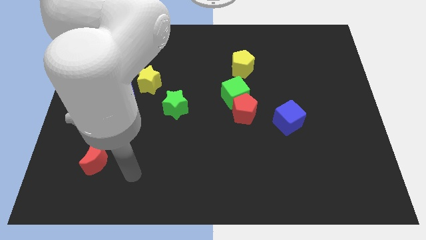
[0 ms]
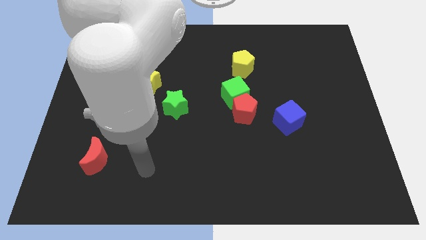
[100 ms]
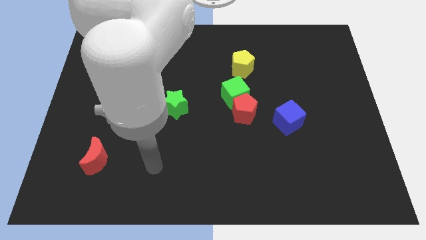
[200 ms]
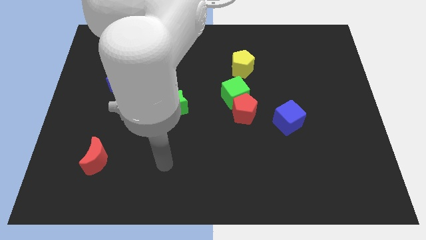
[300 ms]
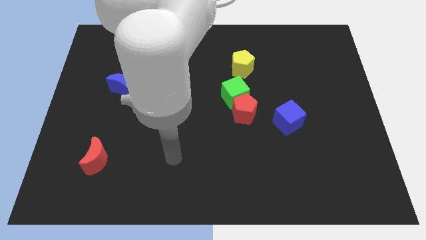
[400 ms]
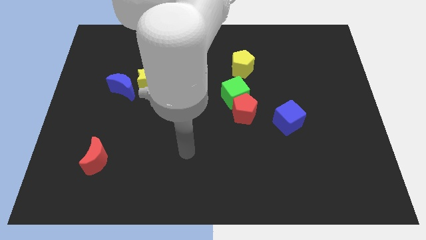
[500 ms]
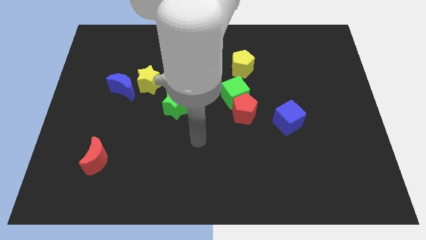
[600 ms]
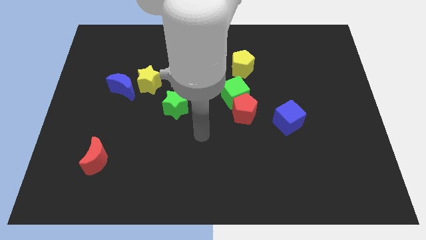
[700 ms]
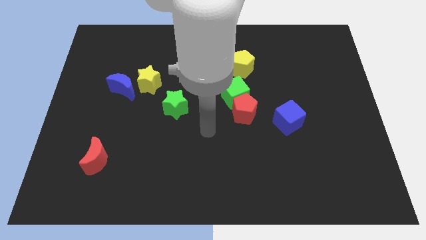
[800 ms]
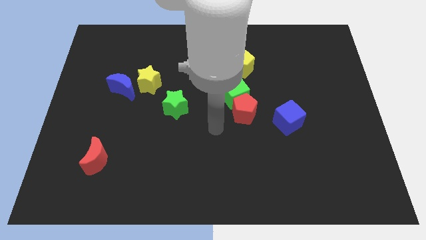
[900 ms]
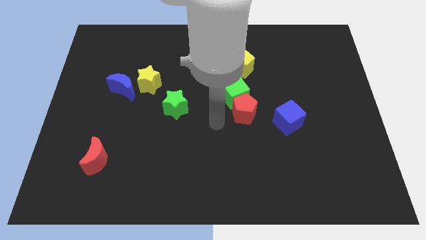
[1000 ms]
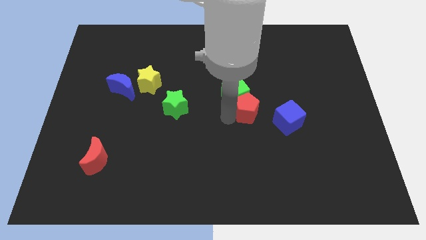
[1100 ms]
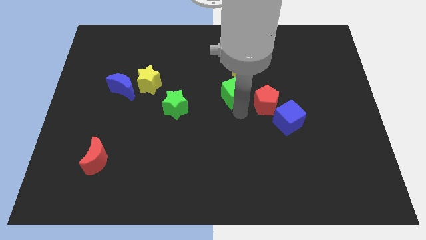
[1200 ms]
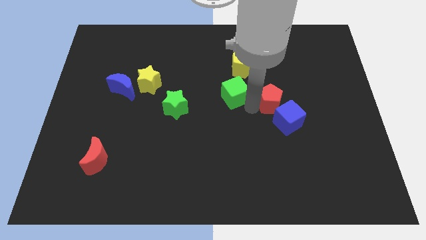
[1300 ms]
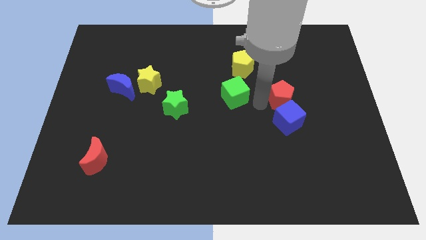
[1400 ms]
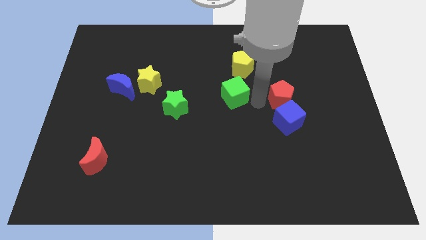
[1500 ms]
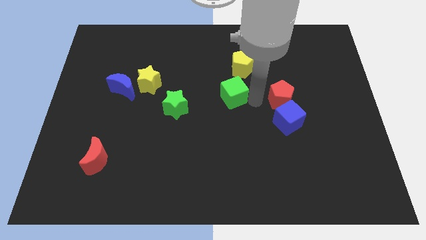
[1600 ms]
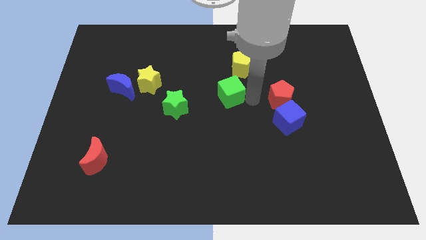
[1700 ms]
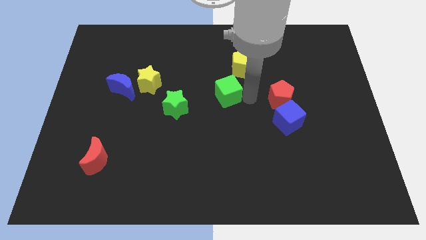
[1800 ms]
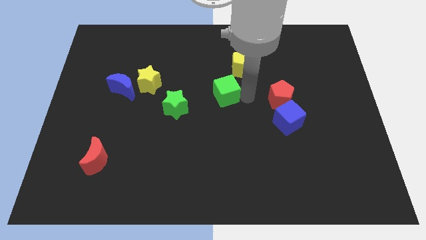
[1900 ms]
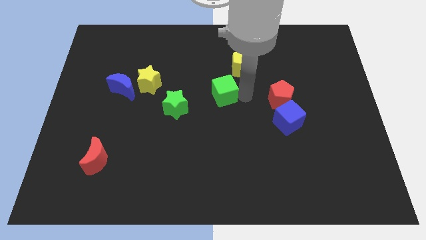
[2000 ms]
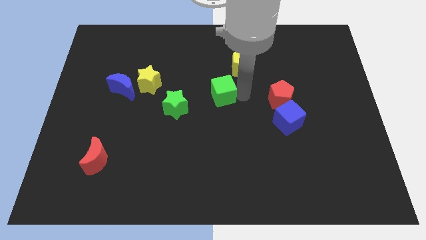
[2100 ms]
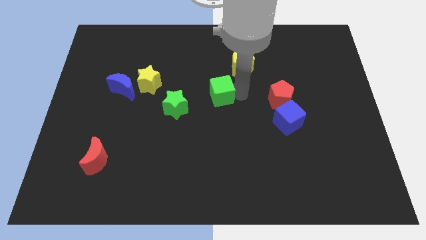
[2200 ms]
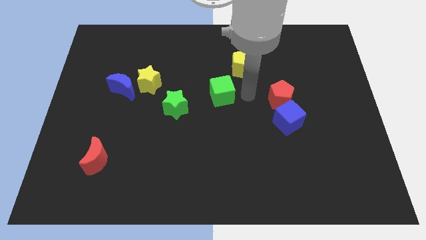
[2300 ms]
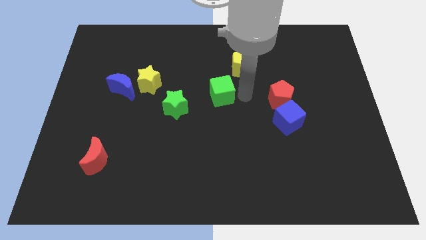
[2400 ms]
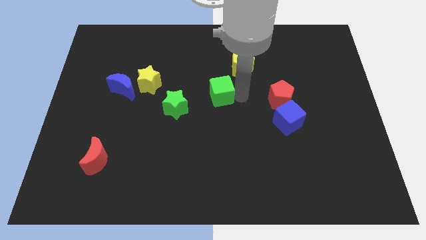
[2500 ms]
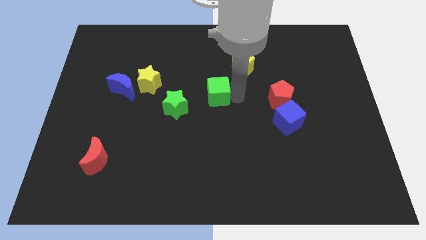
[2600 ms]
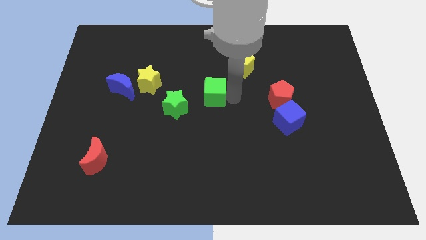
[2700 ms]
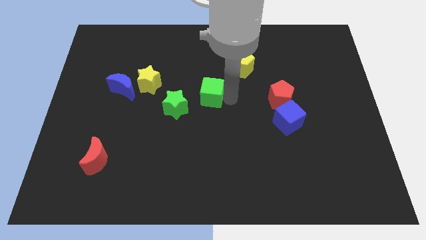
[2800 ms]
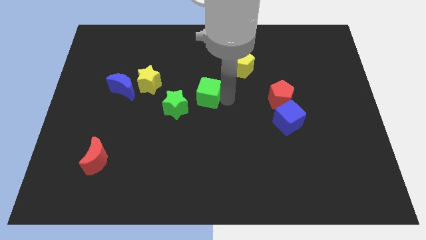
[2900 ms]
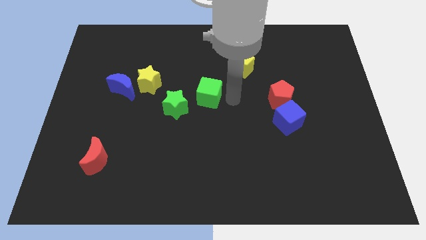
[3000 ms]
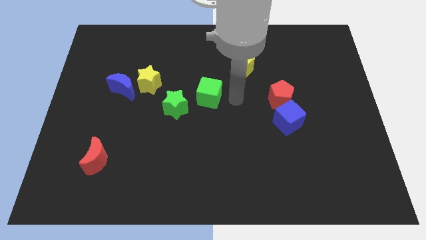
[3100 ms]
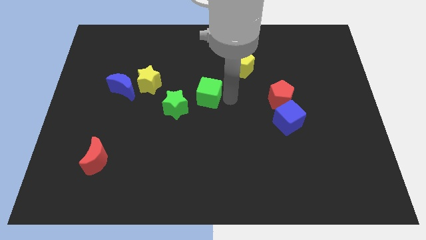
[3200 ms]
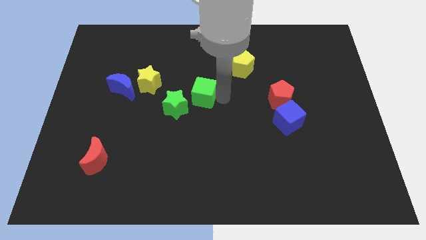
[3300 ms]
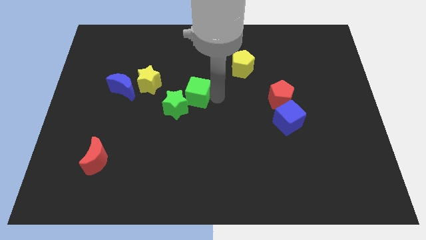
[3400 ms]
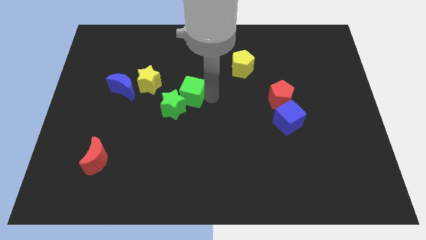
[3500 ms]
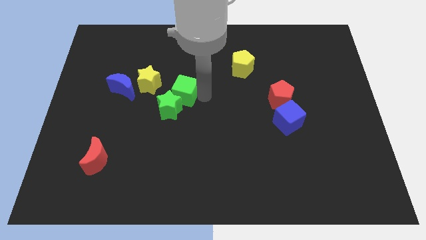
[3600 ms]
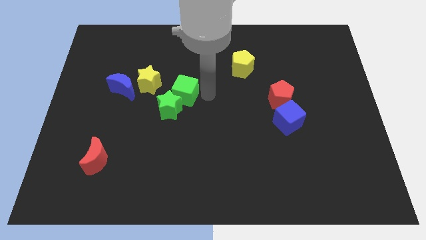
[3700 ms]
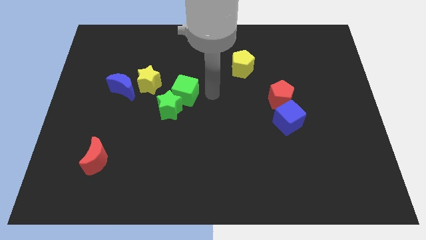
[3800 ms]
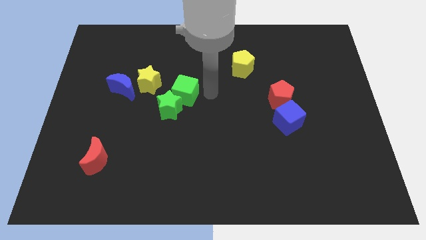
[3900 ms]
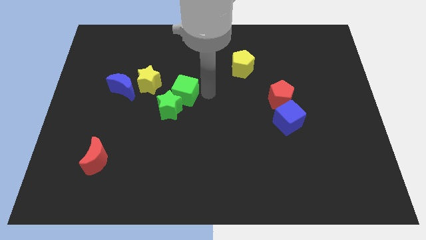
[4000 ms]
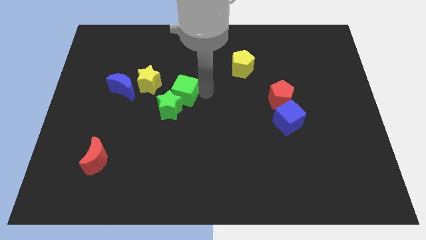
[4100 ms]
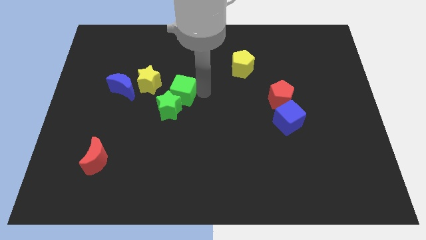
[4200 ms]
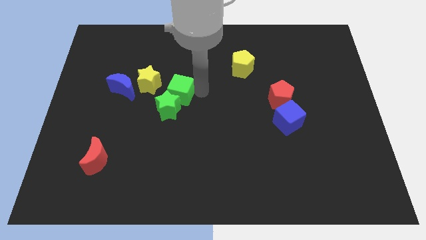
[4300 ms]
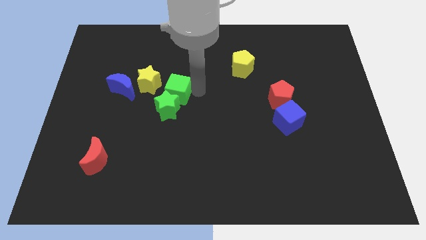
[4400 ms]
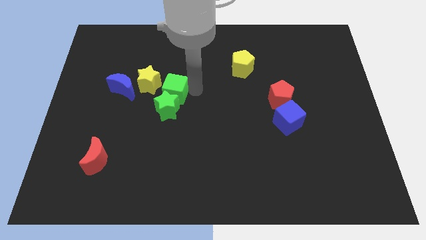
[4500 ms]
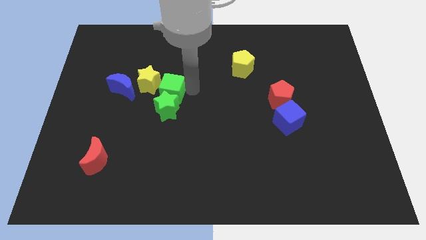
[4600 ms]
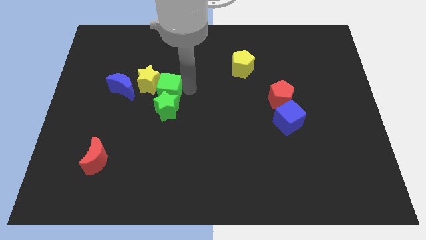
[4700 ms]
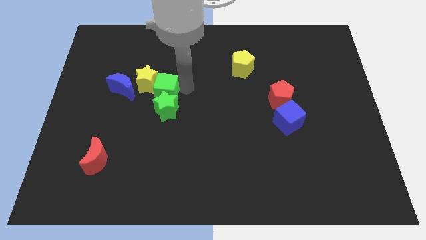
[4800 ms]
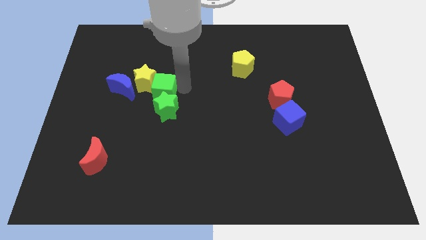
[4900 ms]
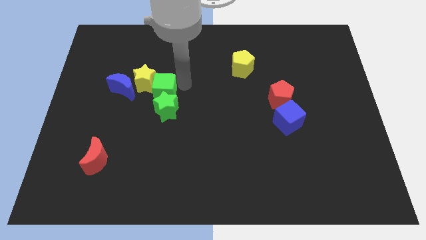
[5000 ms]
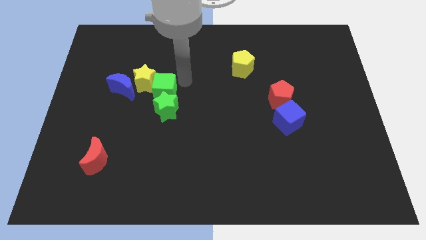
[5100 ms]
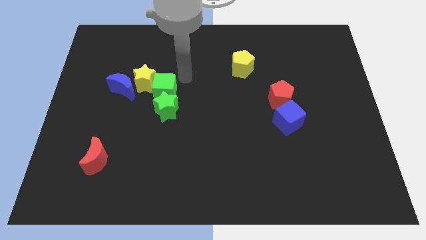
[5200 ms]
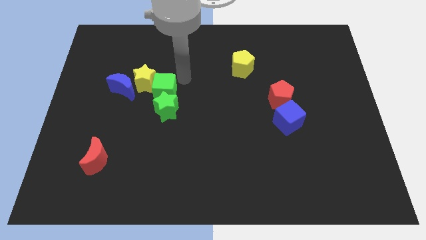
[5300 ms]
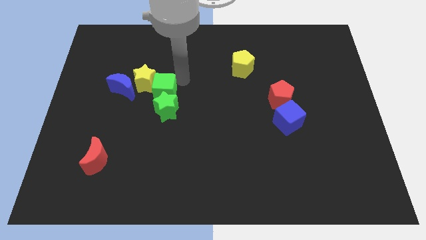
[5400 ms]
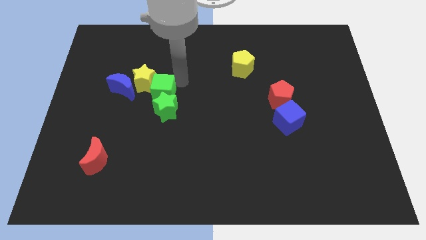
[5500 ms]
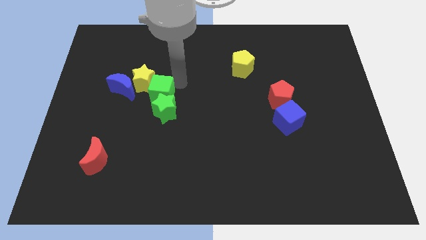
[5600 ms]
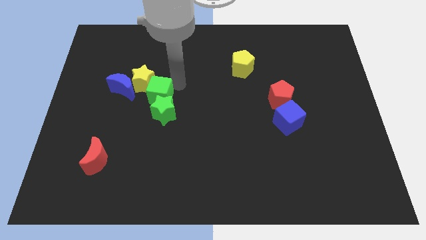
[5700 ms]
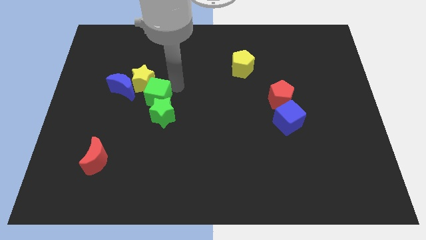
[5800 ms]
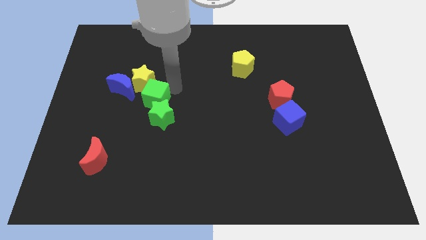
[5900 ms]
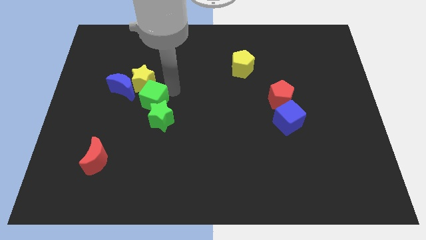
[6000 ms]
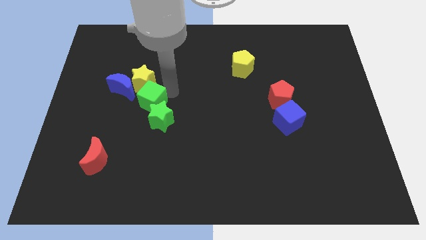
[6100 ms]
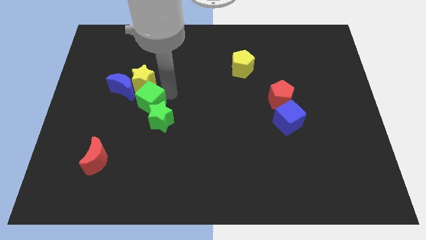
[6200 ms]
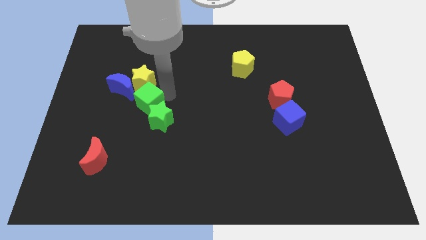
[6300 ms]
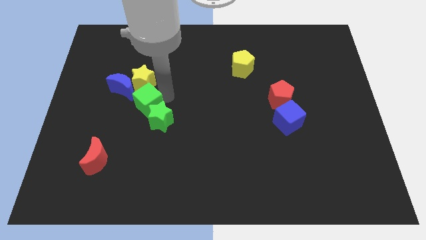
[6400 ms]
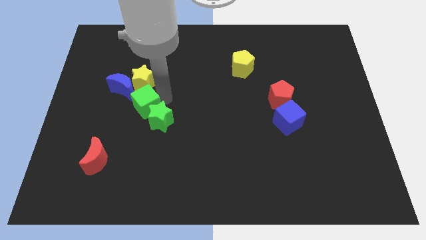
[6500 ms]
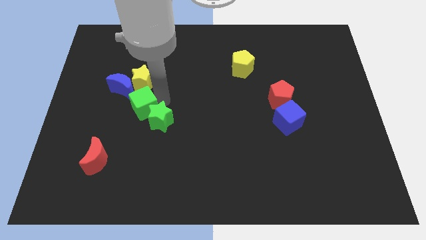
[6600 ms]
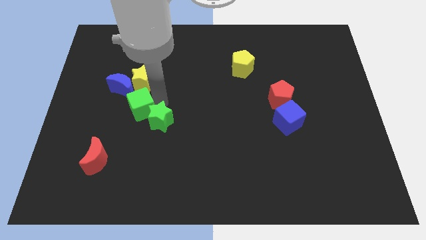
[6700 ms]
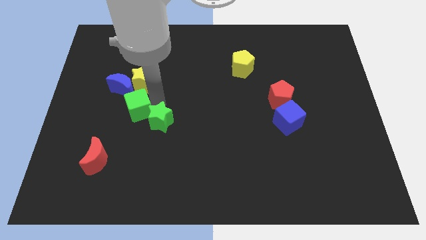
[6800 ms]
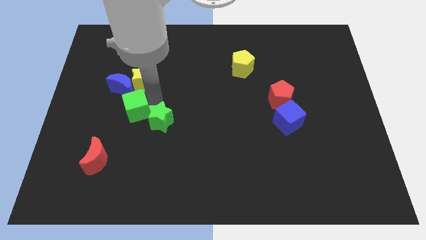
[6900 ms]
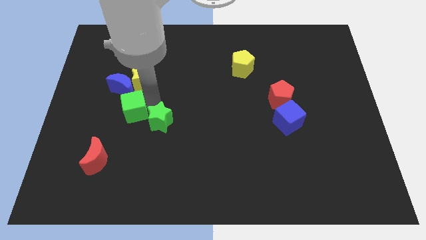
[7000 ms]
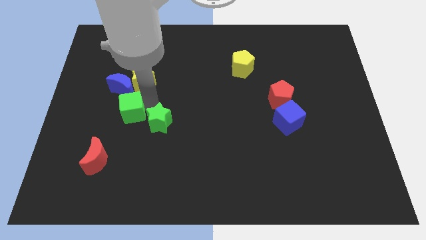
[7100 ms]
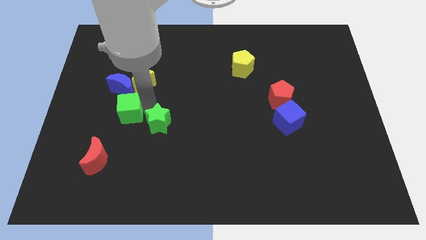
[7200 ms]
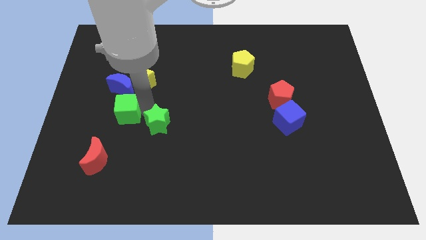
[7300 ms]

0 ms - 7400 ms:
slide the green cube to the top of the red moon
